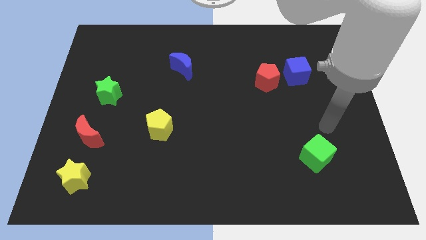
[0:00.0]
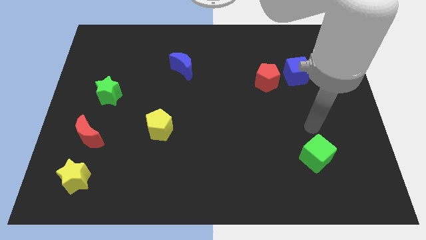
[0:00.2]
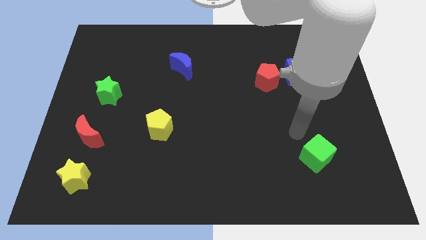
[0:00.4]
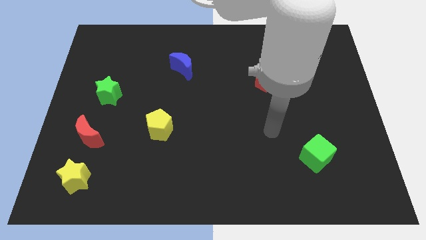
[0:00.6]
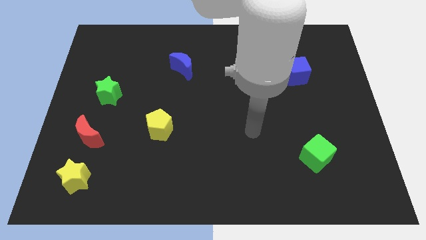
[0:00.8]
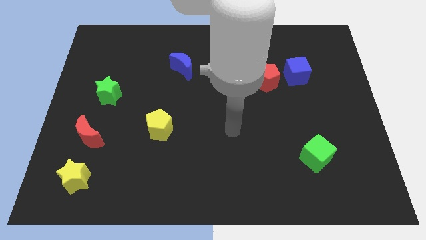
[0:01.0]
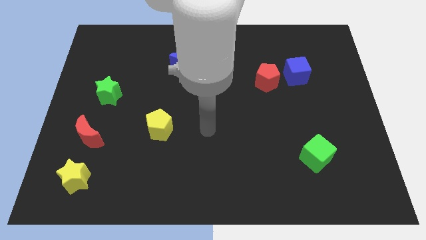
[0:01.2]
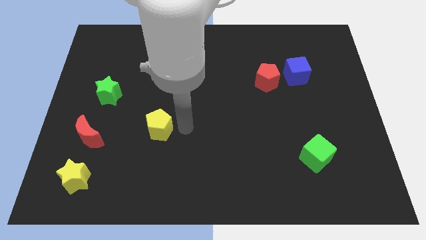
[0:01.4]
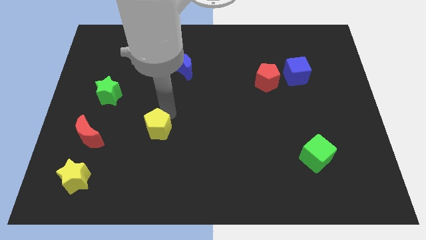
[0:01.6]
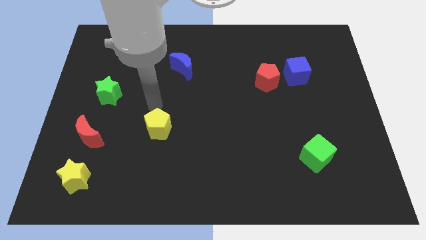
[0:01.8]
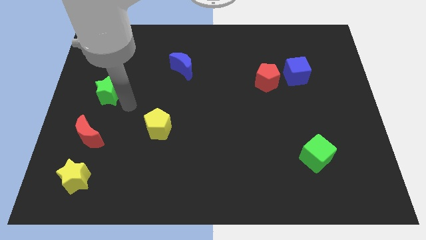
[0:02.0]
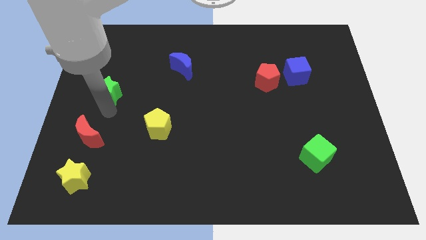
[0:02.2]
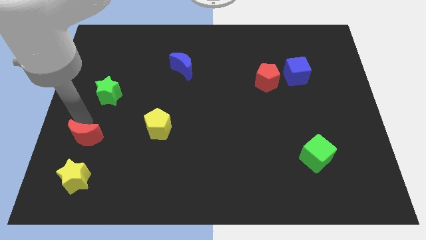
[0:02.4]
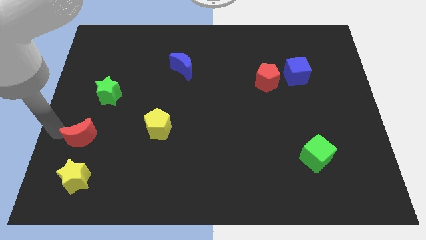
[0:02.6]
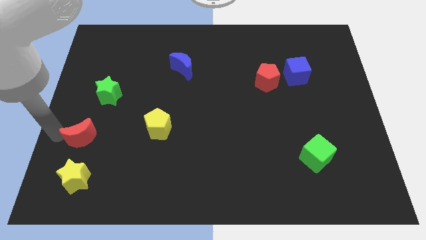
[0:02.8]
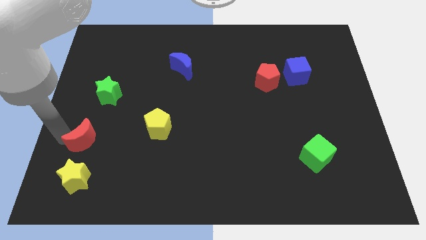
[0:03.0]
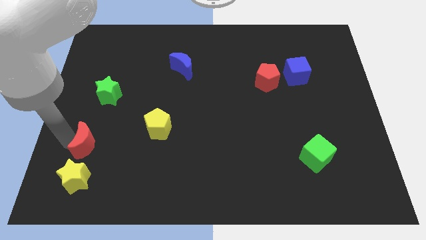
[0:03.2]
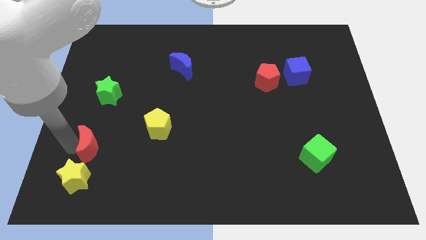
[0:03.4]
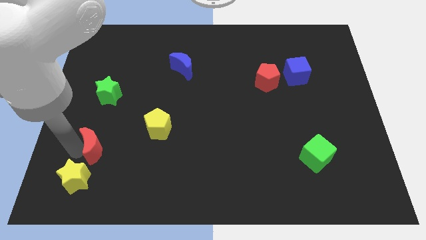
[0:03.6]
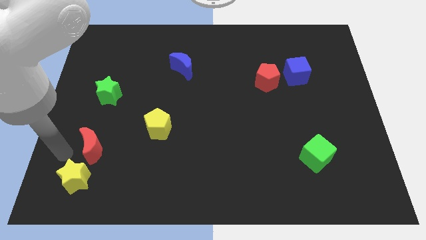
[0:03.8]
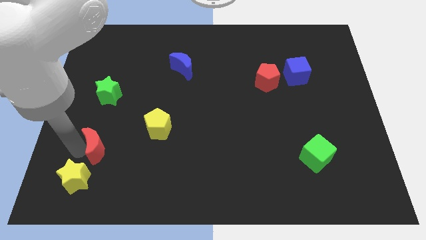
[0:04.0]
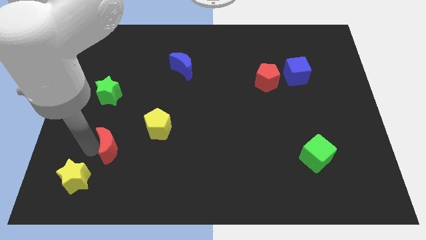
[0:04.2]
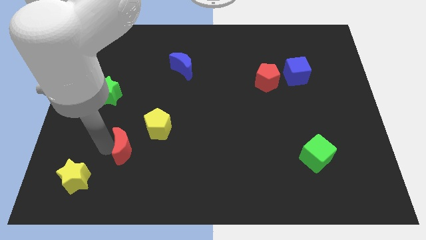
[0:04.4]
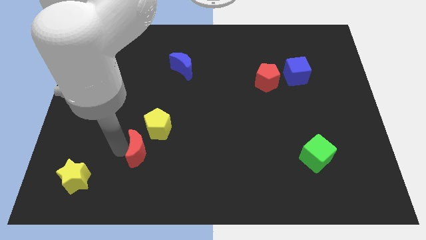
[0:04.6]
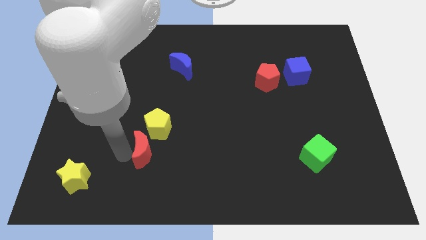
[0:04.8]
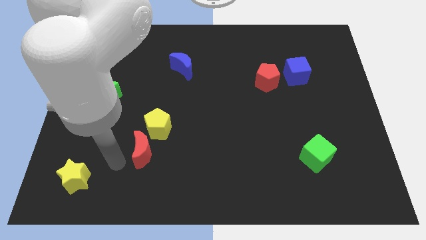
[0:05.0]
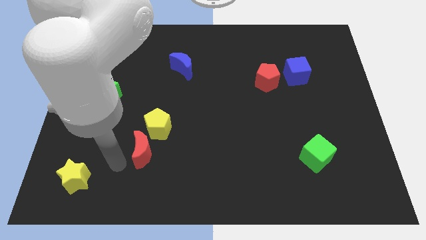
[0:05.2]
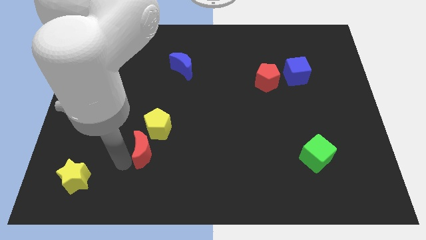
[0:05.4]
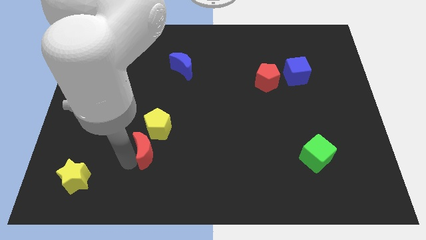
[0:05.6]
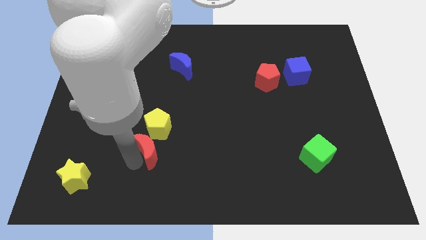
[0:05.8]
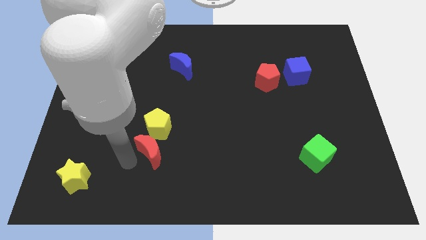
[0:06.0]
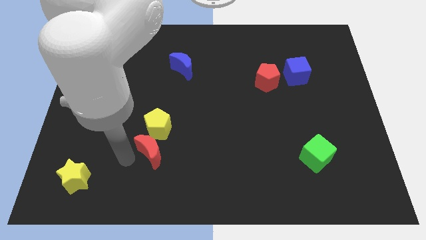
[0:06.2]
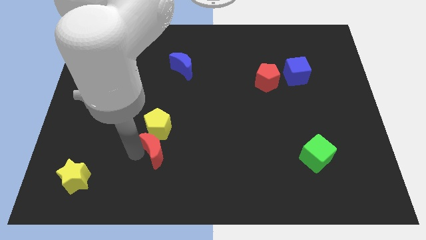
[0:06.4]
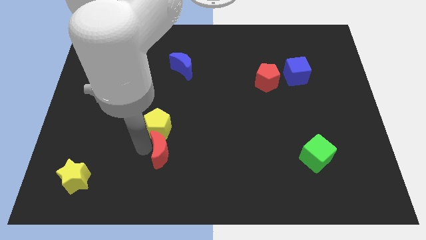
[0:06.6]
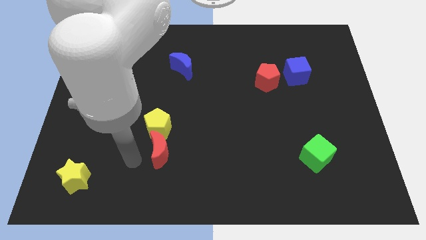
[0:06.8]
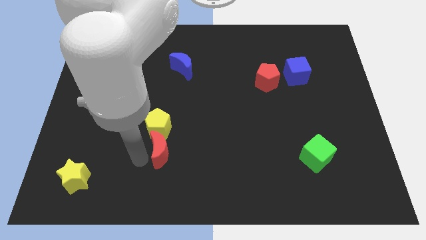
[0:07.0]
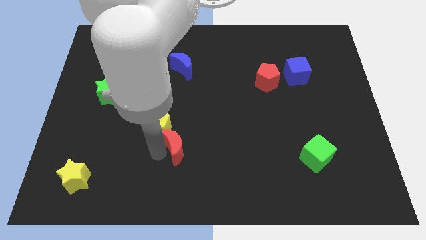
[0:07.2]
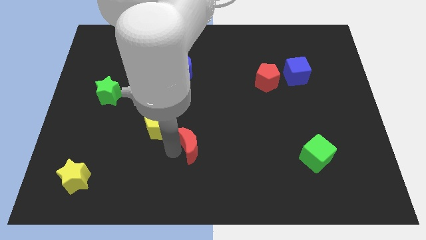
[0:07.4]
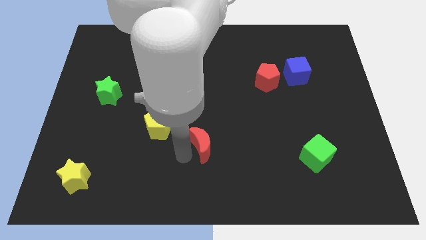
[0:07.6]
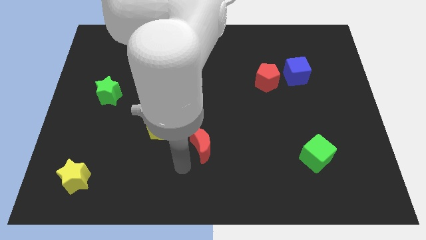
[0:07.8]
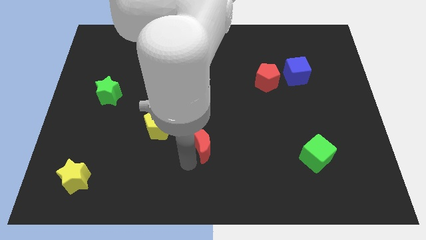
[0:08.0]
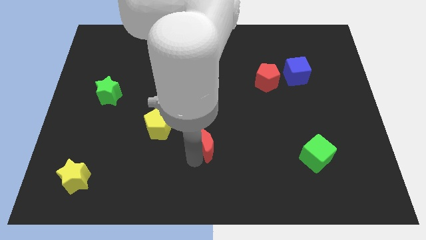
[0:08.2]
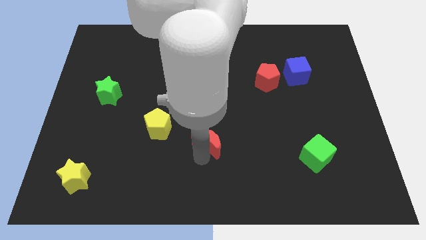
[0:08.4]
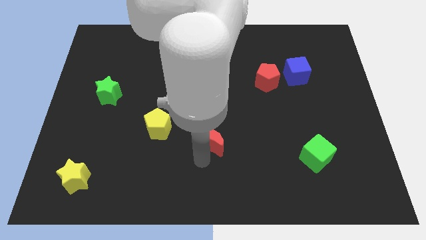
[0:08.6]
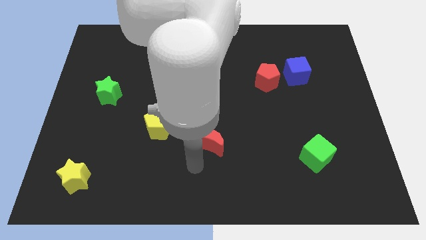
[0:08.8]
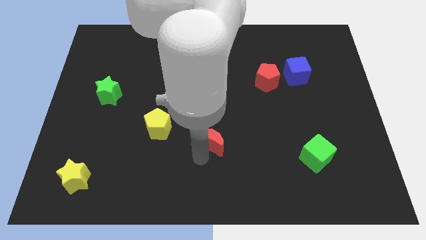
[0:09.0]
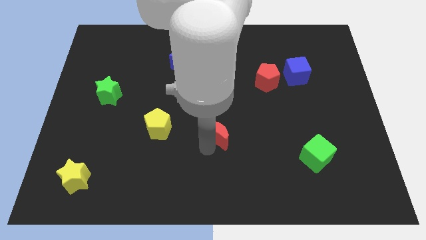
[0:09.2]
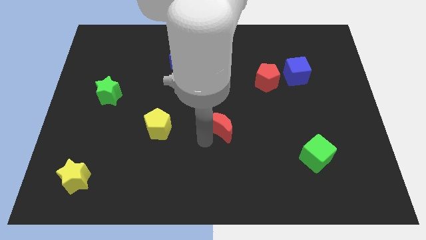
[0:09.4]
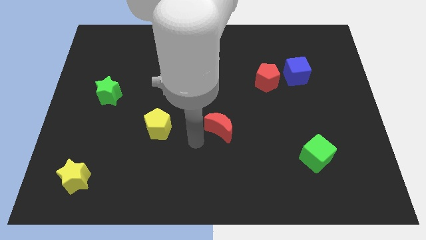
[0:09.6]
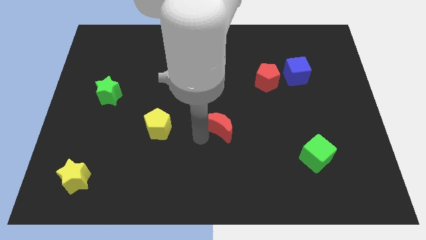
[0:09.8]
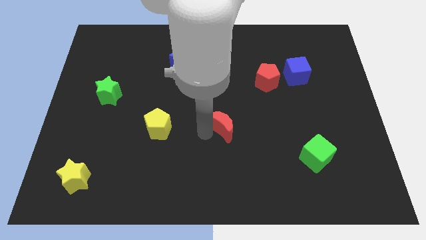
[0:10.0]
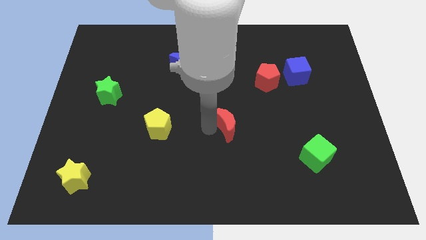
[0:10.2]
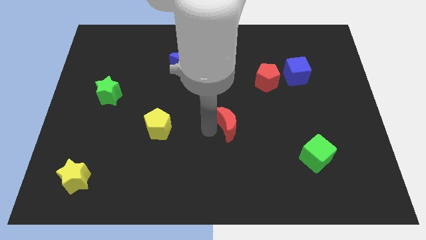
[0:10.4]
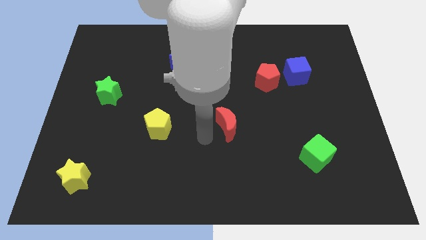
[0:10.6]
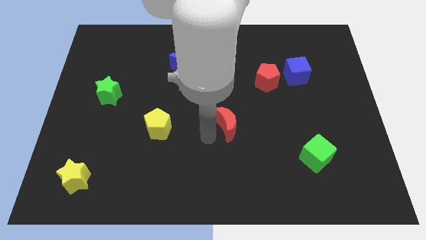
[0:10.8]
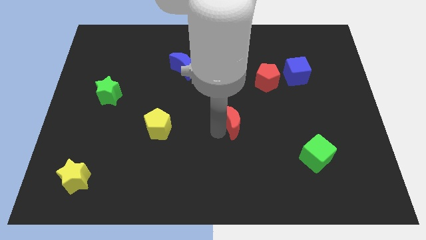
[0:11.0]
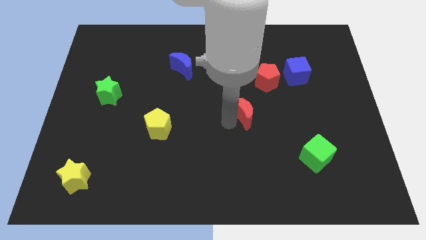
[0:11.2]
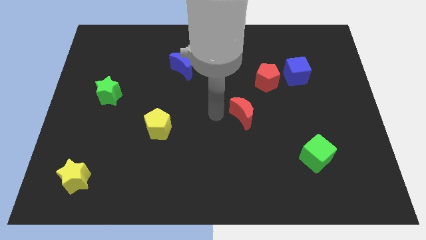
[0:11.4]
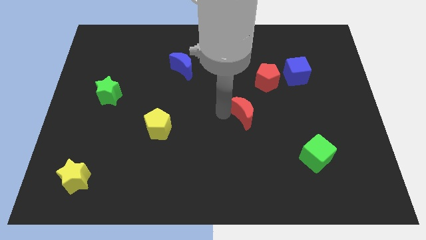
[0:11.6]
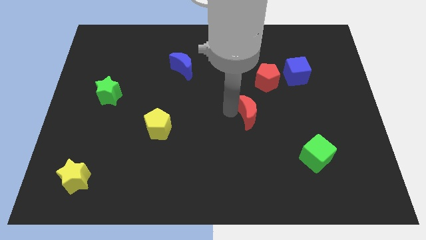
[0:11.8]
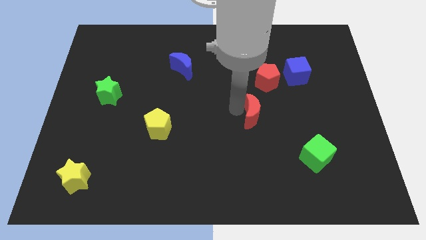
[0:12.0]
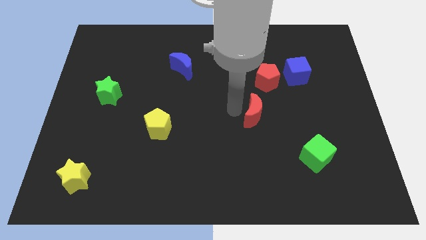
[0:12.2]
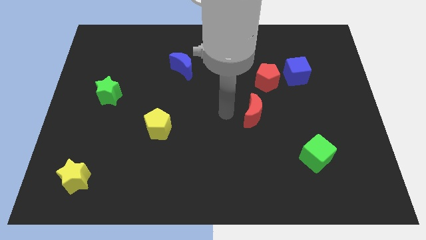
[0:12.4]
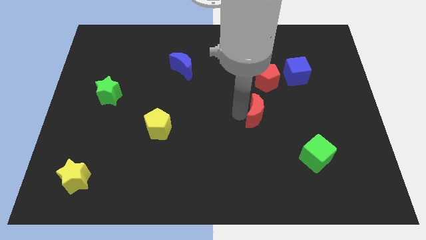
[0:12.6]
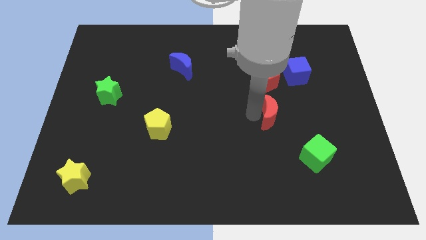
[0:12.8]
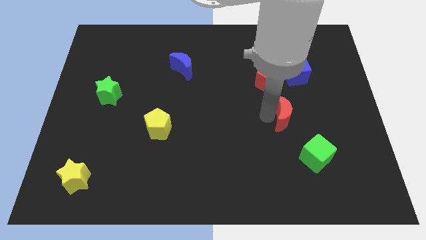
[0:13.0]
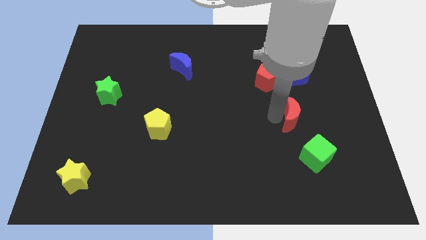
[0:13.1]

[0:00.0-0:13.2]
push the red moon above the green cube

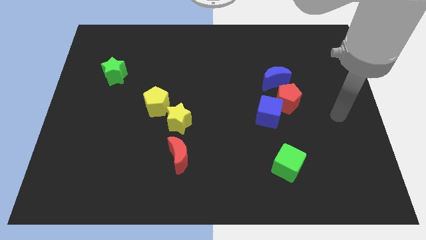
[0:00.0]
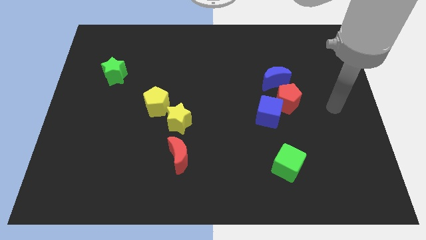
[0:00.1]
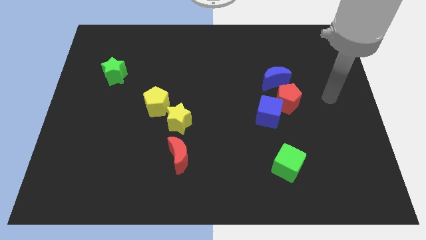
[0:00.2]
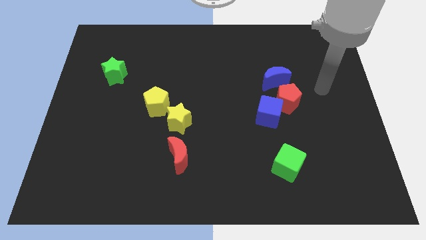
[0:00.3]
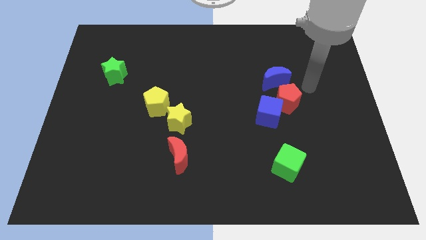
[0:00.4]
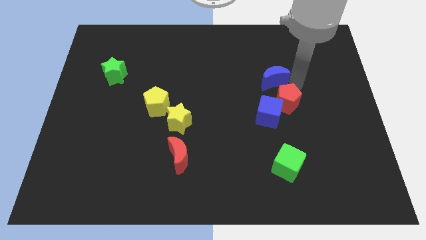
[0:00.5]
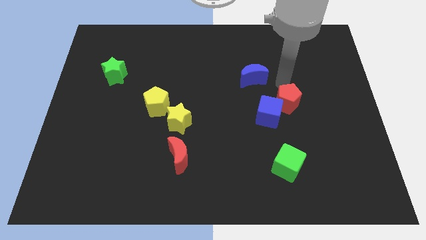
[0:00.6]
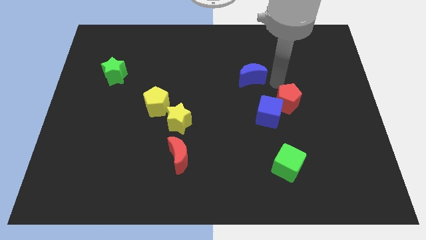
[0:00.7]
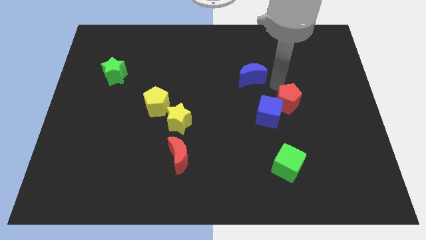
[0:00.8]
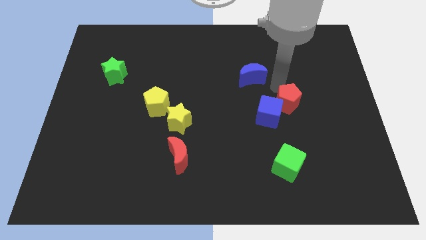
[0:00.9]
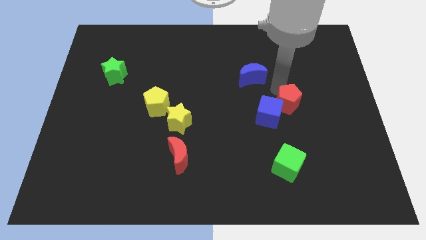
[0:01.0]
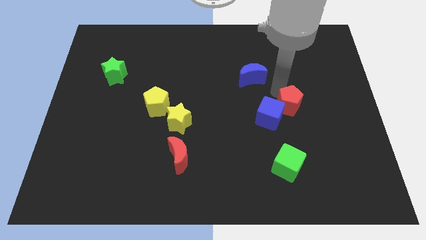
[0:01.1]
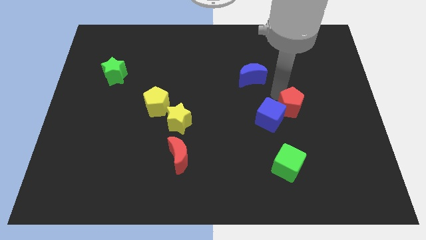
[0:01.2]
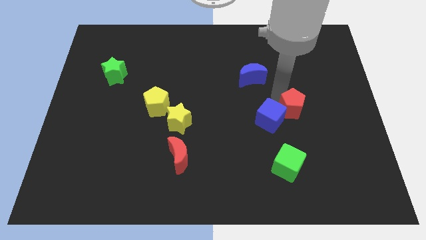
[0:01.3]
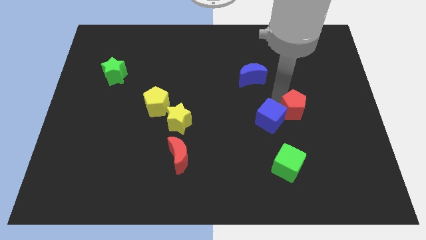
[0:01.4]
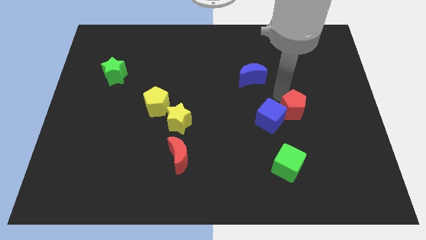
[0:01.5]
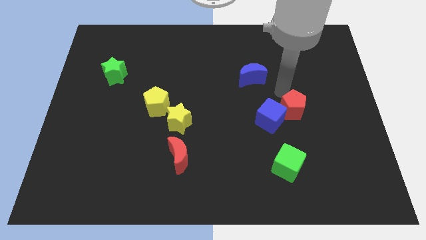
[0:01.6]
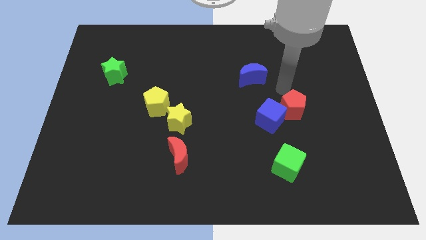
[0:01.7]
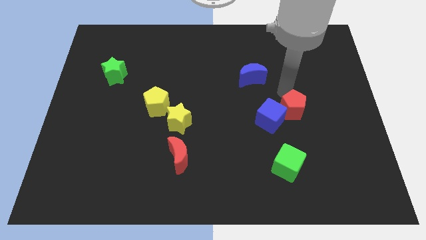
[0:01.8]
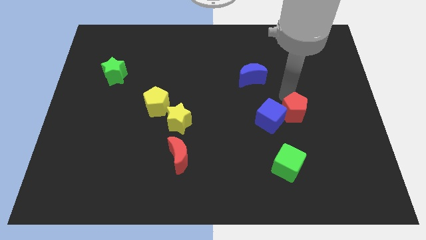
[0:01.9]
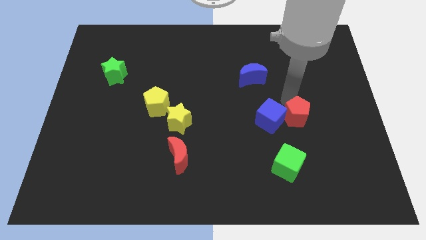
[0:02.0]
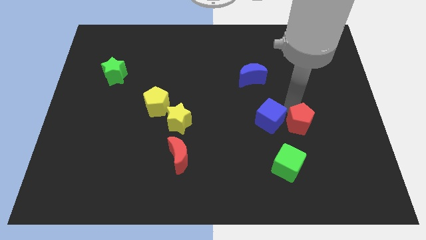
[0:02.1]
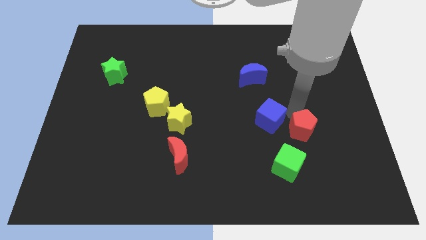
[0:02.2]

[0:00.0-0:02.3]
put the red pentagon diagonally up and to the right of the green cube
